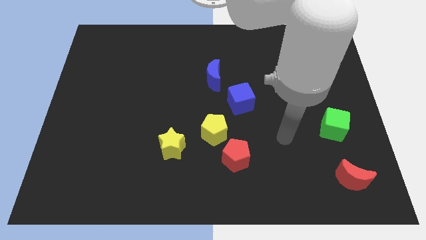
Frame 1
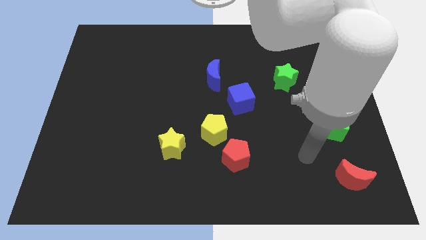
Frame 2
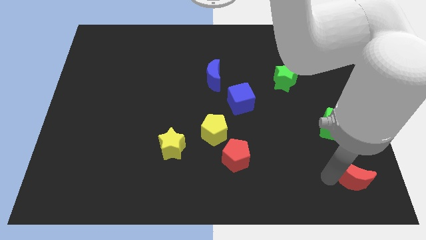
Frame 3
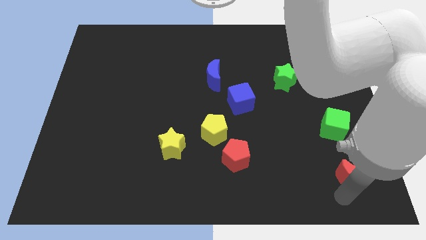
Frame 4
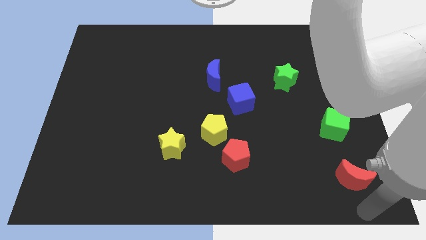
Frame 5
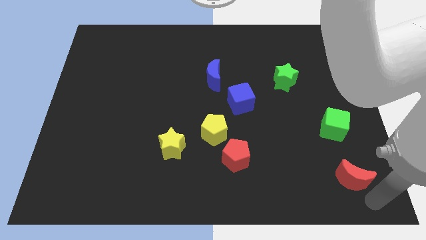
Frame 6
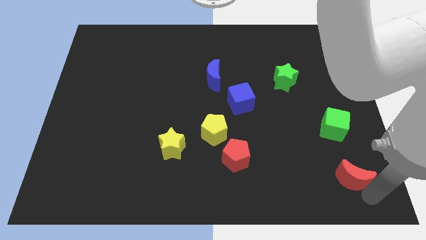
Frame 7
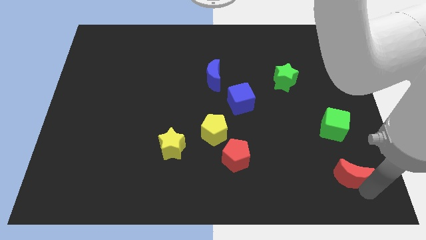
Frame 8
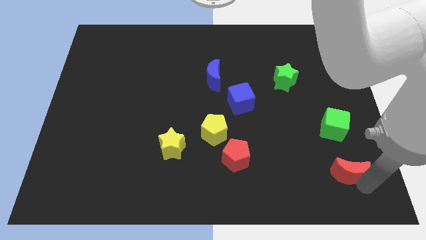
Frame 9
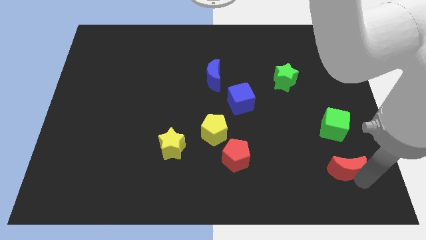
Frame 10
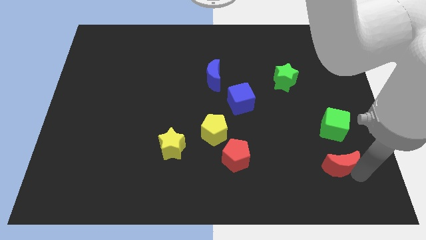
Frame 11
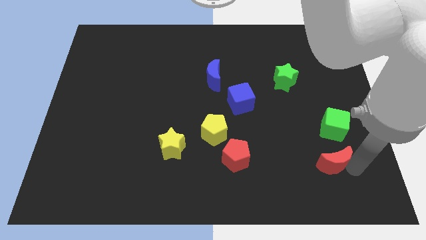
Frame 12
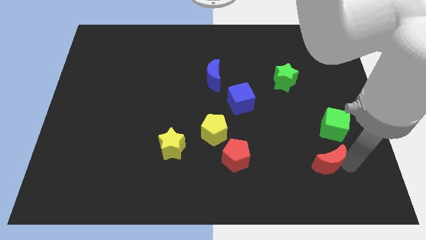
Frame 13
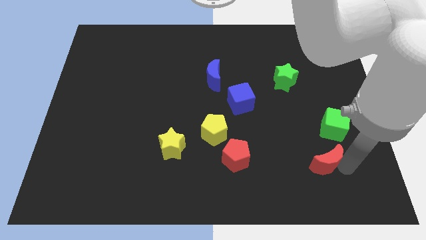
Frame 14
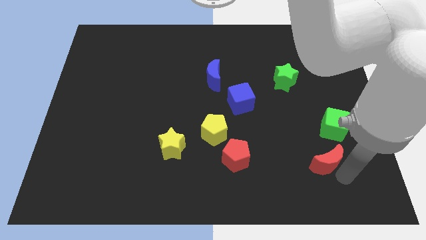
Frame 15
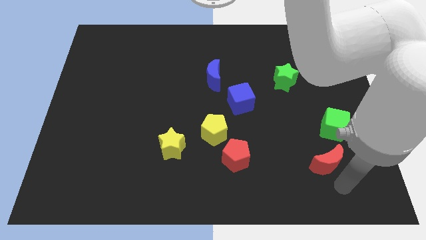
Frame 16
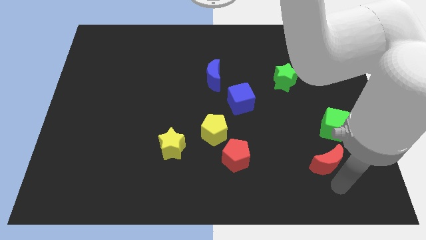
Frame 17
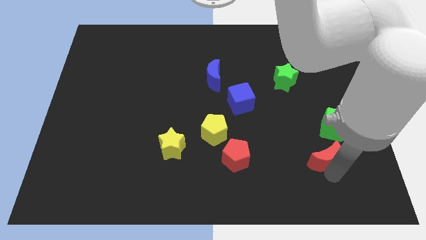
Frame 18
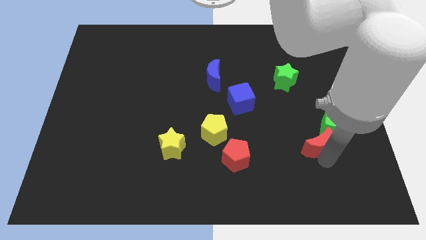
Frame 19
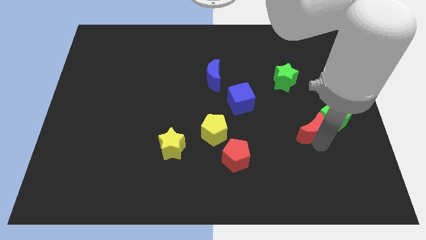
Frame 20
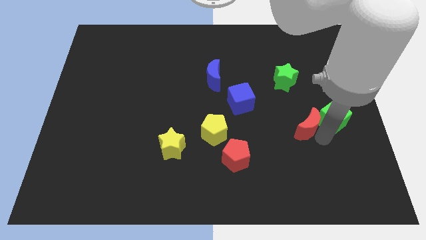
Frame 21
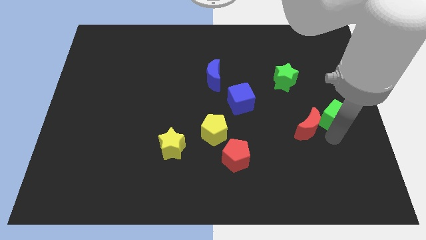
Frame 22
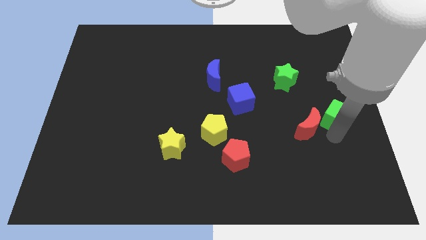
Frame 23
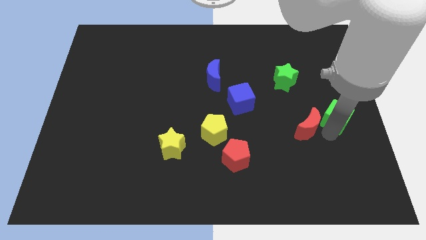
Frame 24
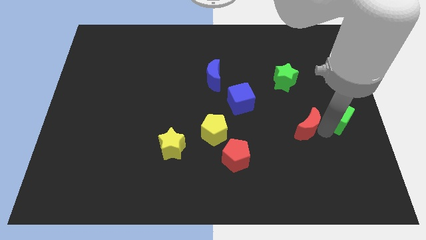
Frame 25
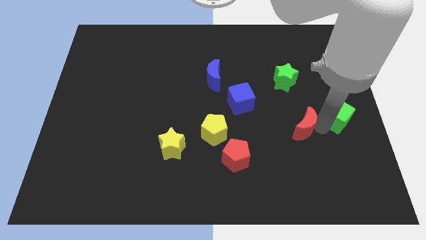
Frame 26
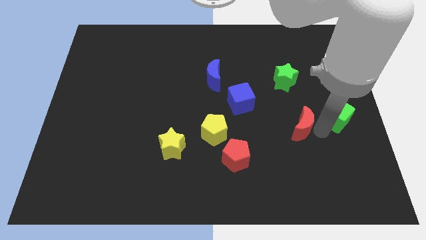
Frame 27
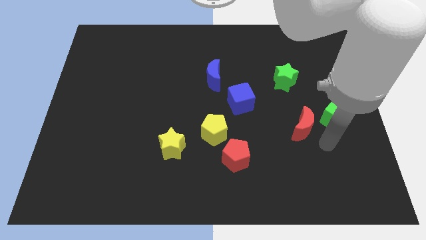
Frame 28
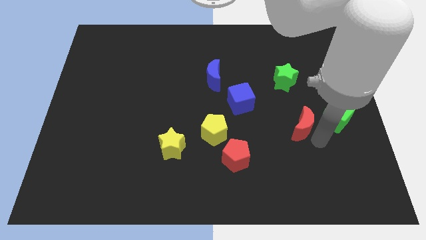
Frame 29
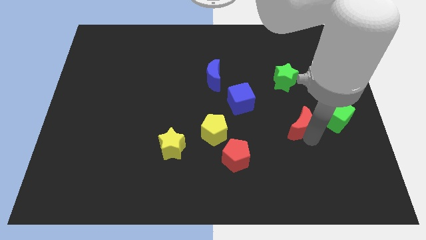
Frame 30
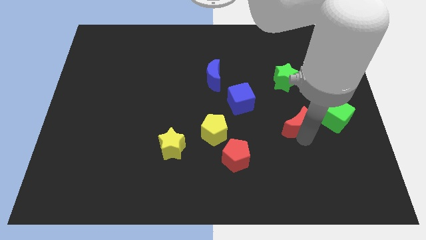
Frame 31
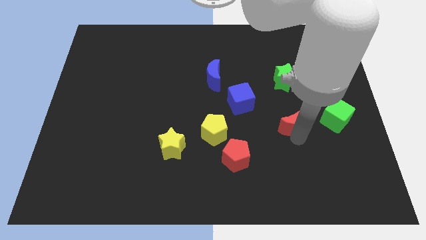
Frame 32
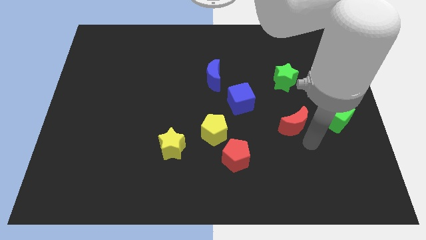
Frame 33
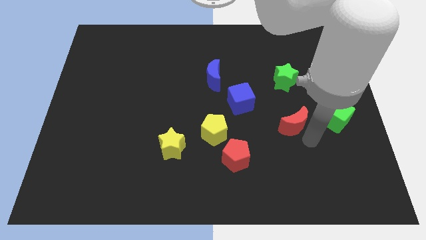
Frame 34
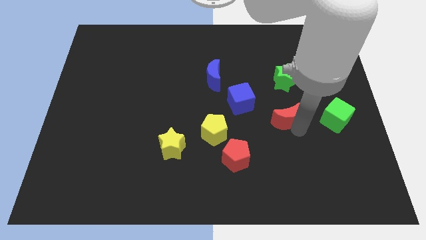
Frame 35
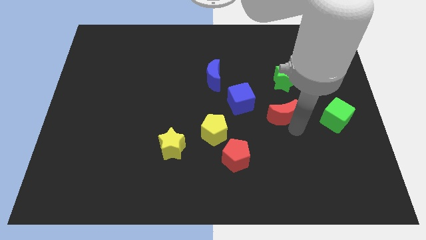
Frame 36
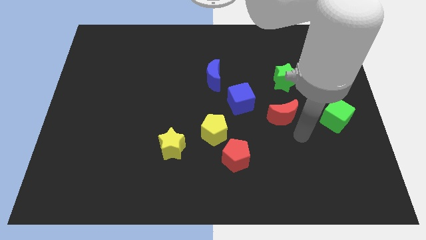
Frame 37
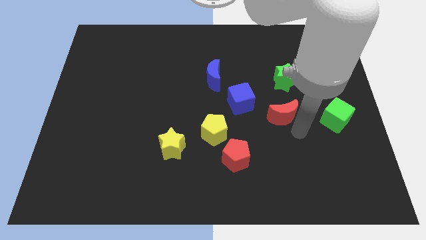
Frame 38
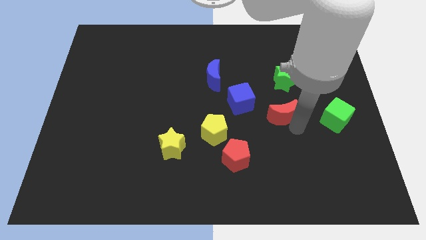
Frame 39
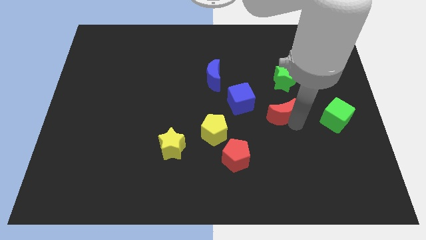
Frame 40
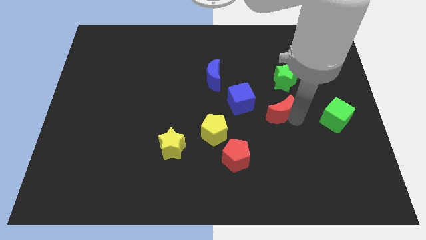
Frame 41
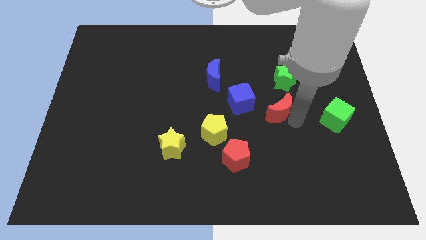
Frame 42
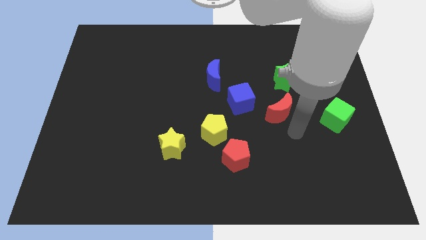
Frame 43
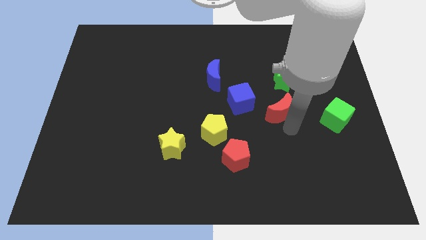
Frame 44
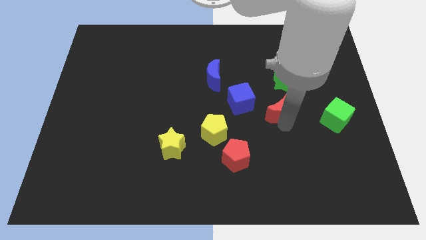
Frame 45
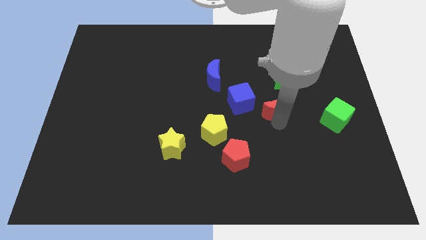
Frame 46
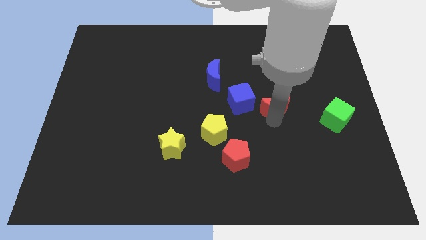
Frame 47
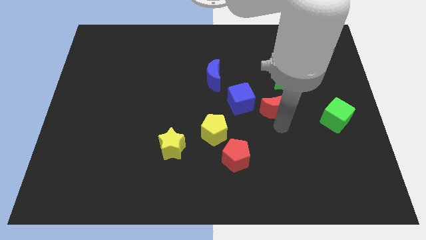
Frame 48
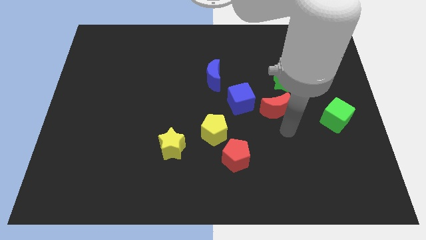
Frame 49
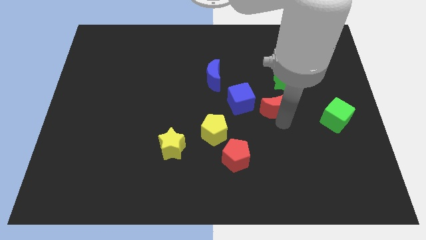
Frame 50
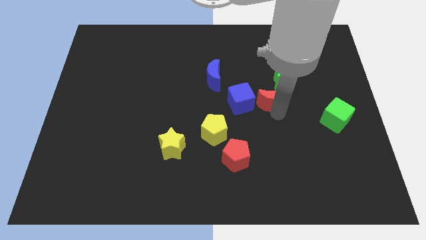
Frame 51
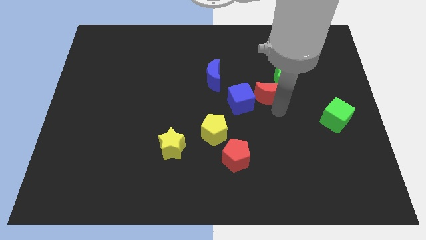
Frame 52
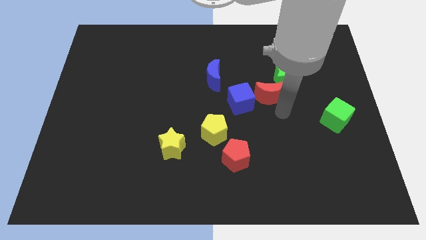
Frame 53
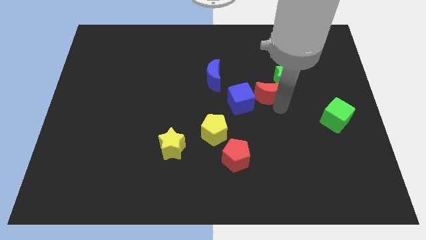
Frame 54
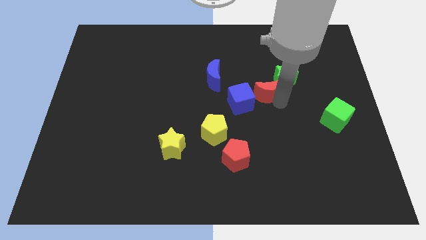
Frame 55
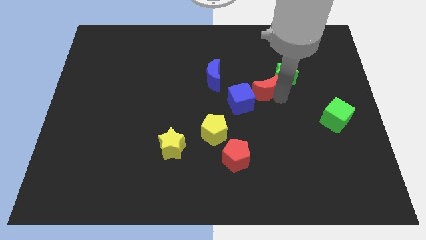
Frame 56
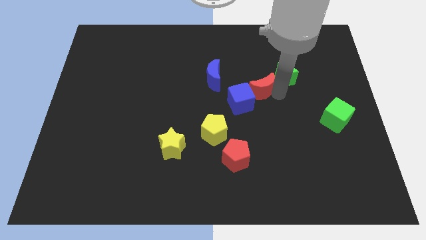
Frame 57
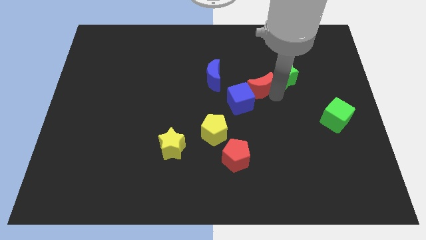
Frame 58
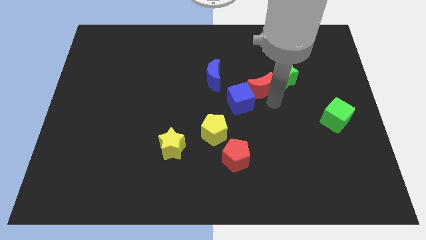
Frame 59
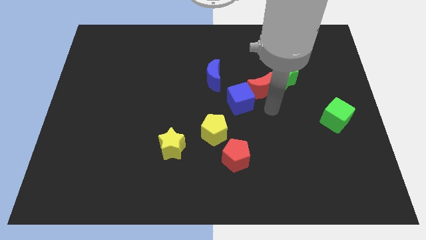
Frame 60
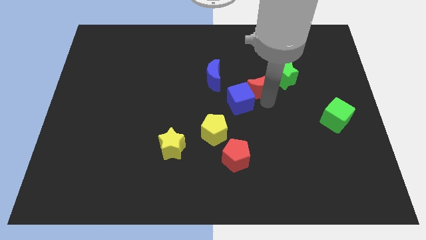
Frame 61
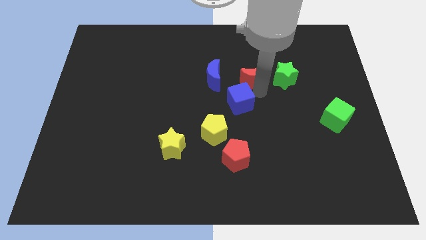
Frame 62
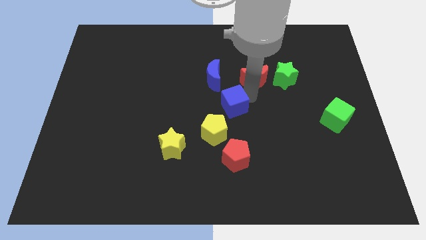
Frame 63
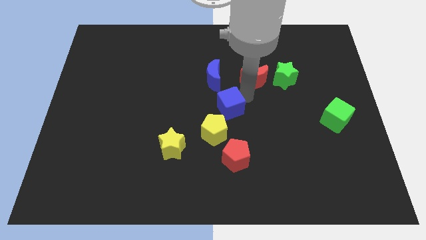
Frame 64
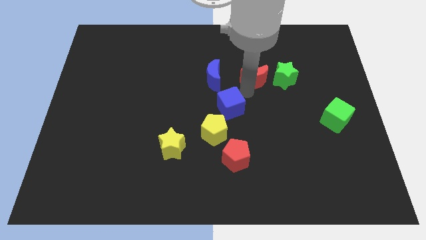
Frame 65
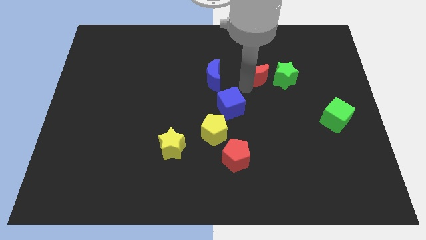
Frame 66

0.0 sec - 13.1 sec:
slide the red moon to the top left of the green star
